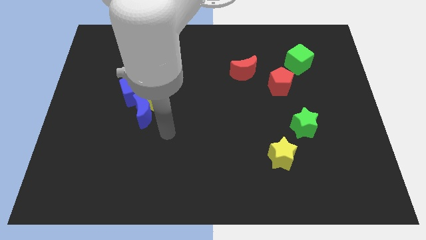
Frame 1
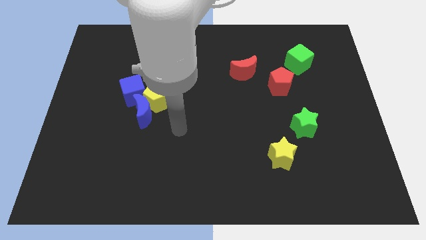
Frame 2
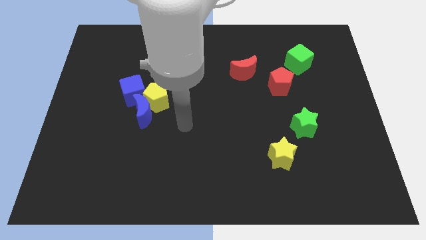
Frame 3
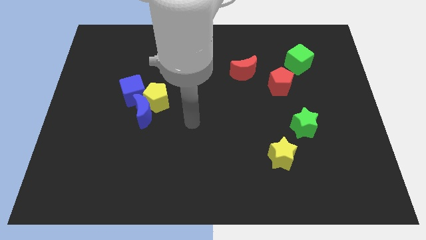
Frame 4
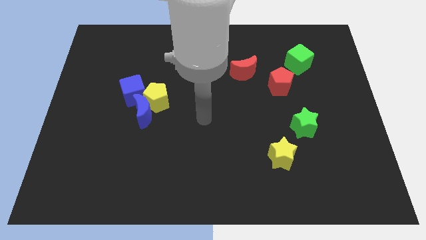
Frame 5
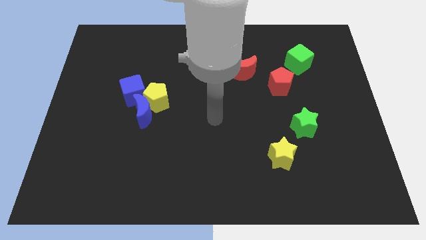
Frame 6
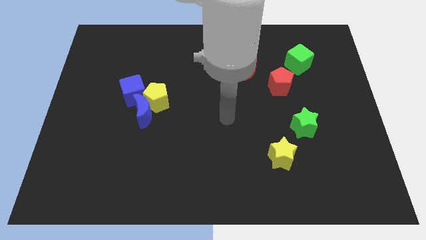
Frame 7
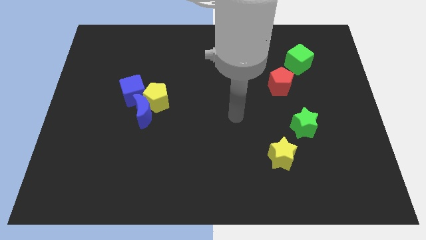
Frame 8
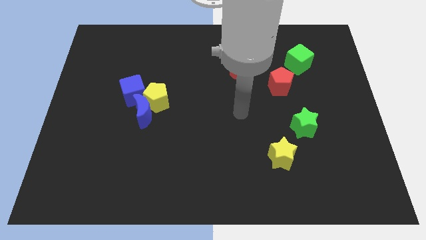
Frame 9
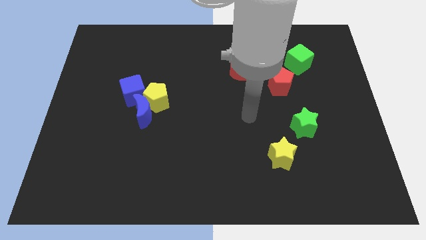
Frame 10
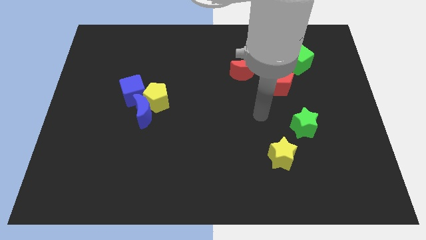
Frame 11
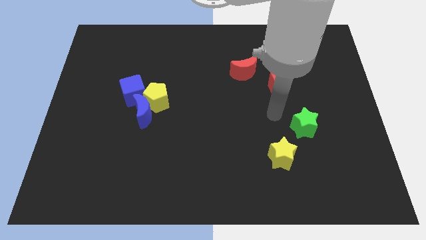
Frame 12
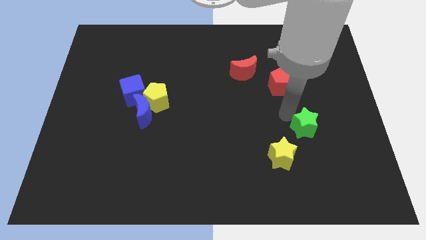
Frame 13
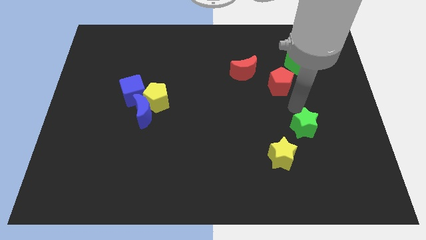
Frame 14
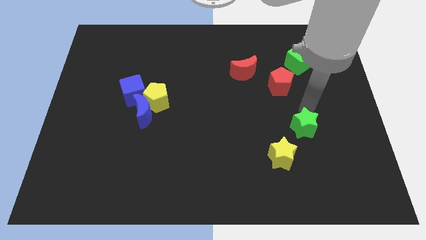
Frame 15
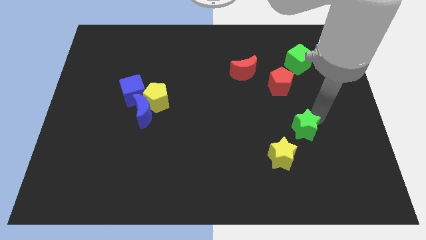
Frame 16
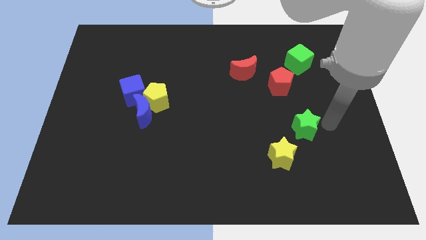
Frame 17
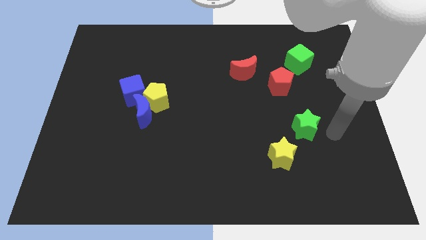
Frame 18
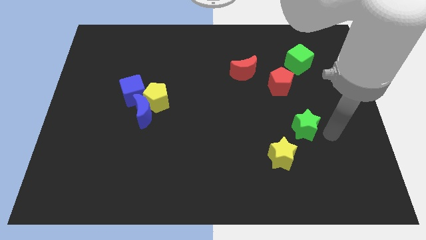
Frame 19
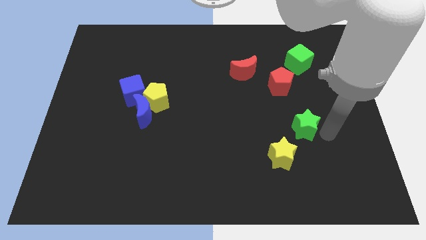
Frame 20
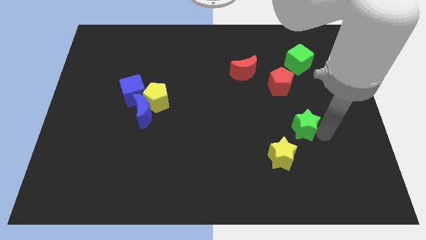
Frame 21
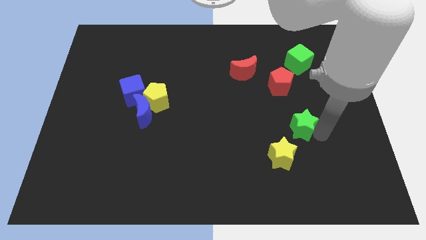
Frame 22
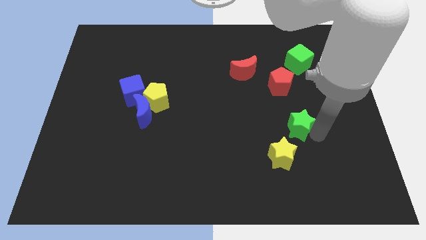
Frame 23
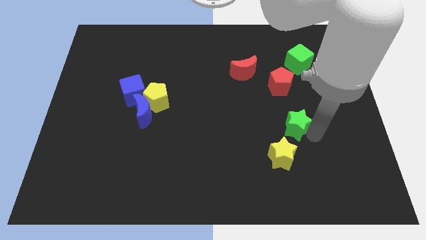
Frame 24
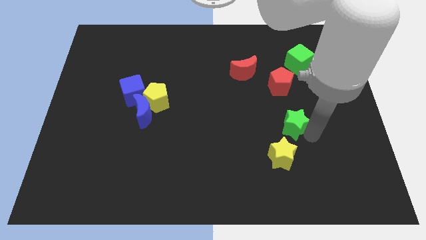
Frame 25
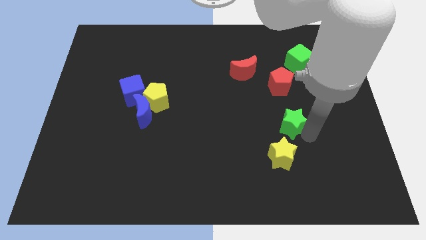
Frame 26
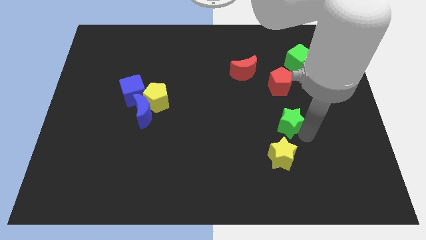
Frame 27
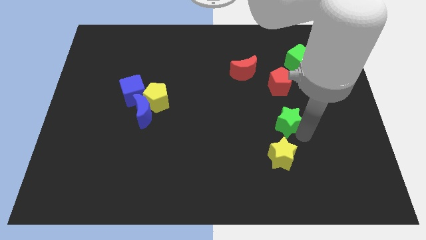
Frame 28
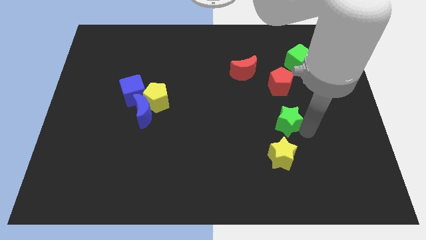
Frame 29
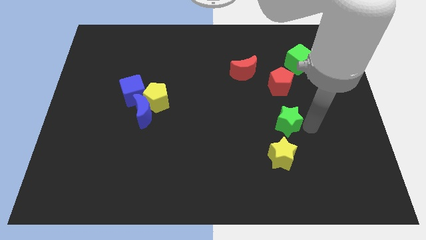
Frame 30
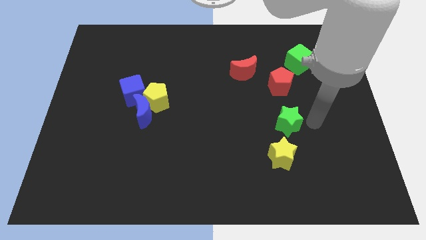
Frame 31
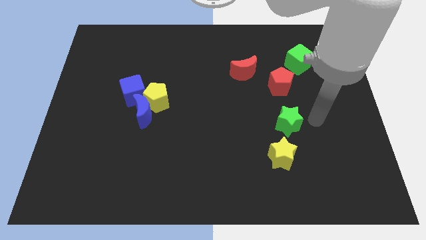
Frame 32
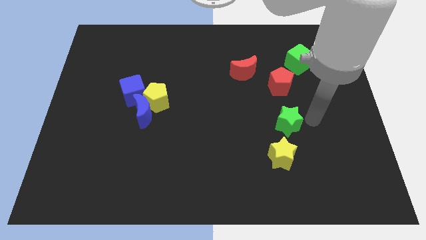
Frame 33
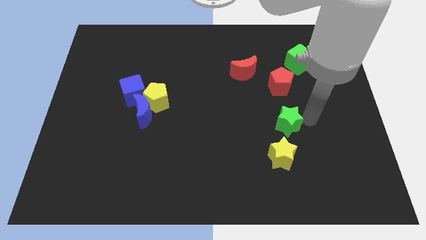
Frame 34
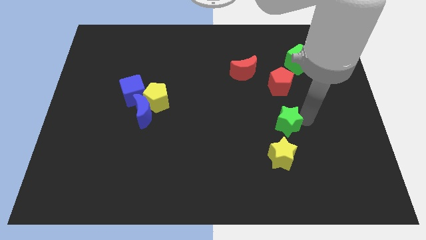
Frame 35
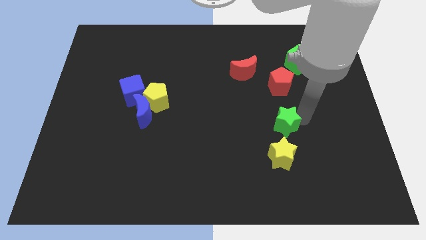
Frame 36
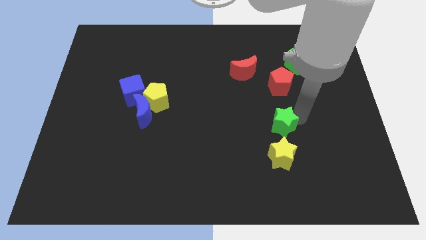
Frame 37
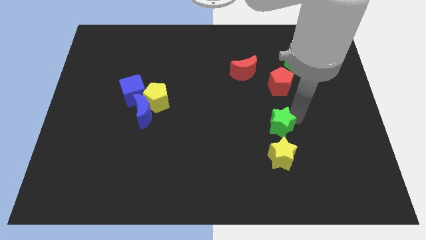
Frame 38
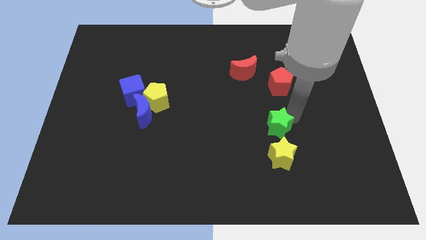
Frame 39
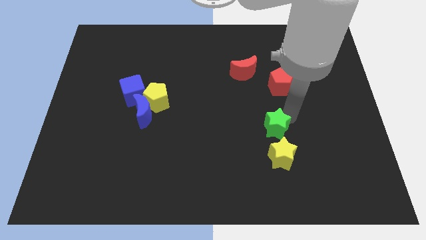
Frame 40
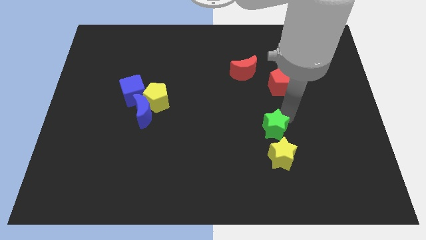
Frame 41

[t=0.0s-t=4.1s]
push the green star to the left a little

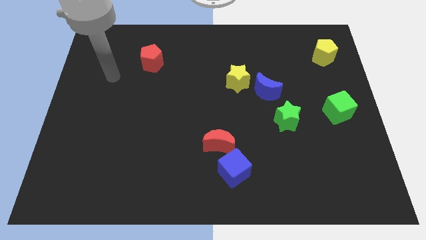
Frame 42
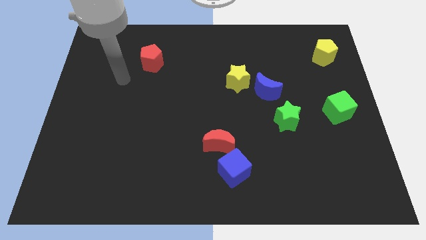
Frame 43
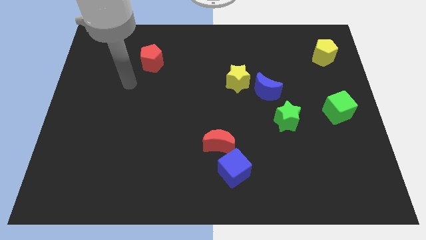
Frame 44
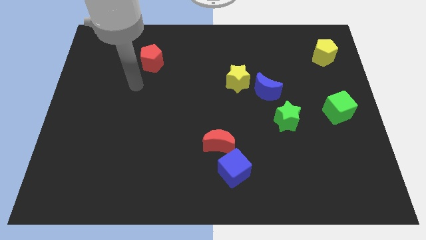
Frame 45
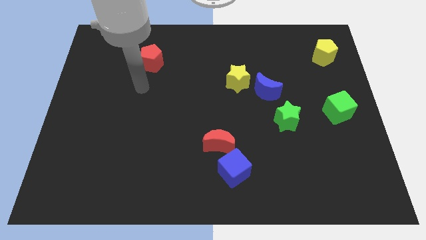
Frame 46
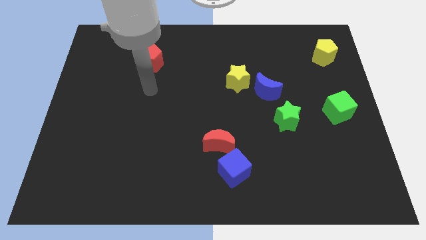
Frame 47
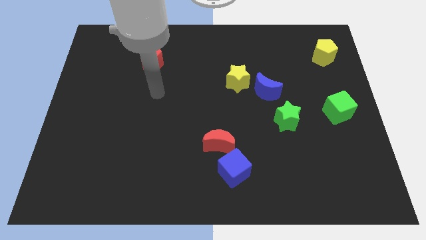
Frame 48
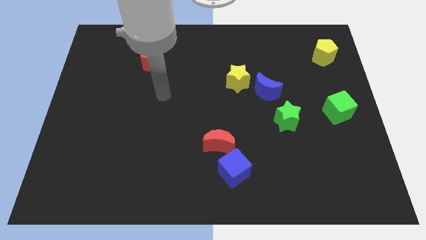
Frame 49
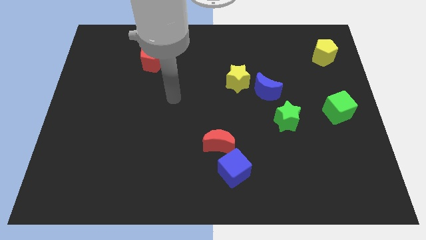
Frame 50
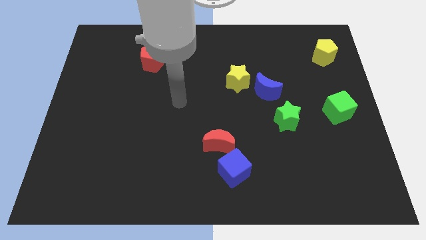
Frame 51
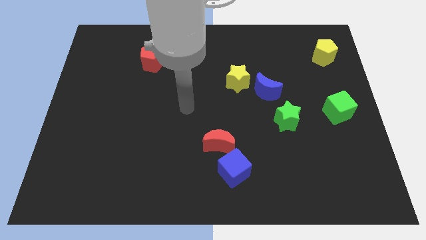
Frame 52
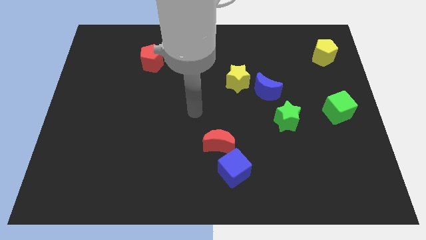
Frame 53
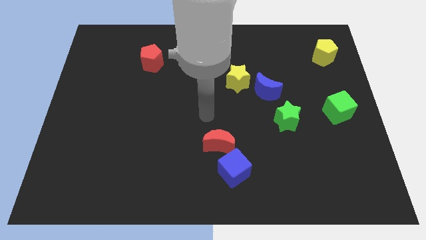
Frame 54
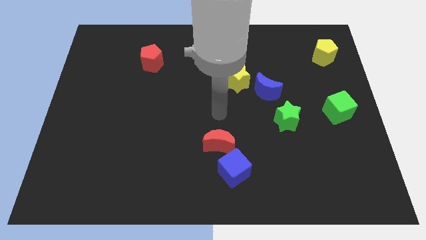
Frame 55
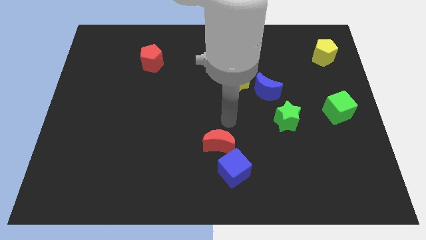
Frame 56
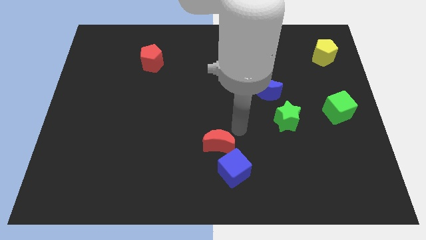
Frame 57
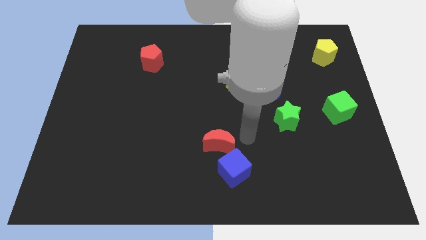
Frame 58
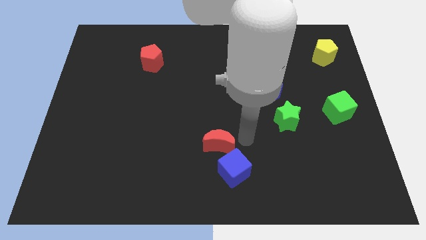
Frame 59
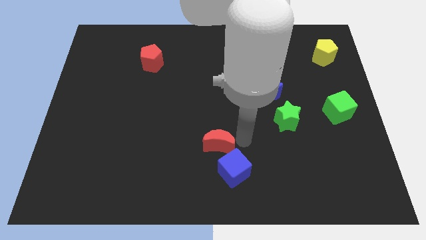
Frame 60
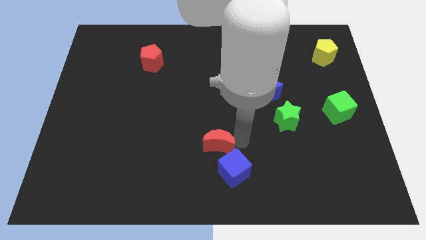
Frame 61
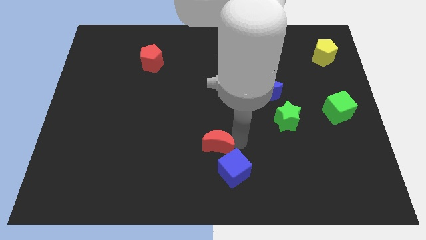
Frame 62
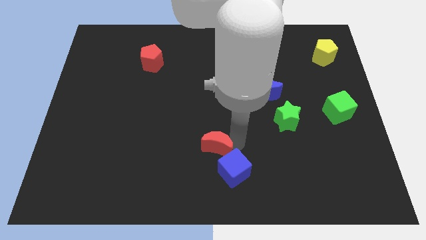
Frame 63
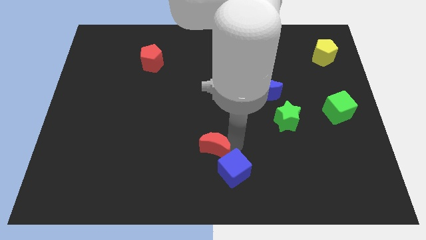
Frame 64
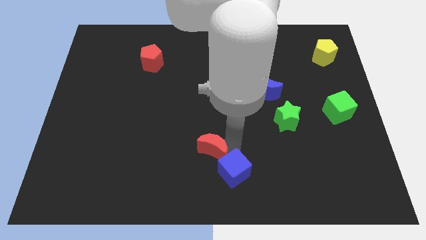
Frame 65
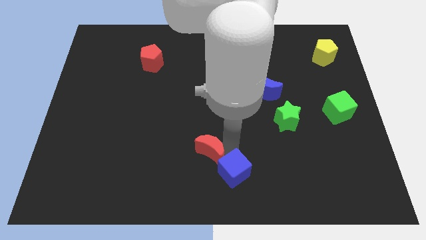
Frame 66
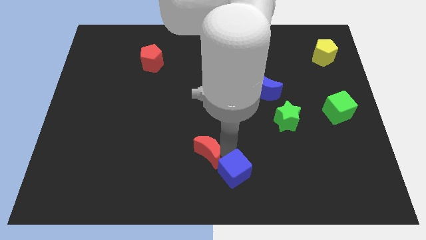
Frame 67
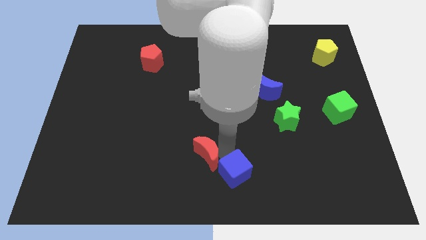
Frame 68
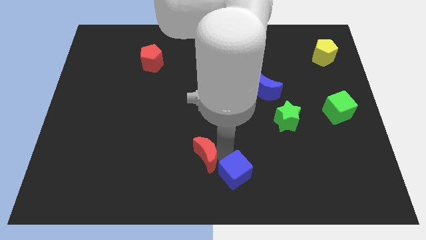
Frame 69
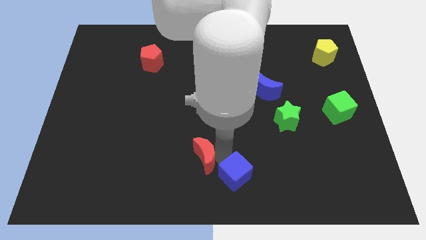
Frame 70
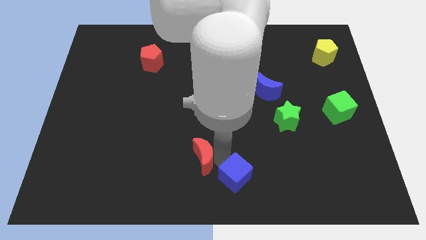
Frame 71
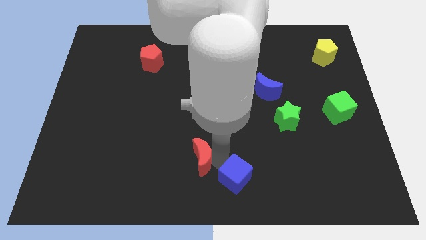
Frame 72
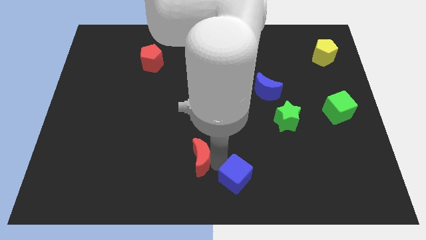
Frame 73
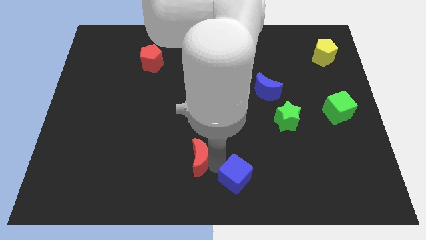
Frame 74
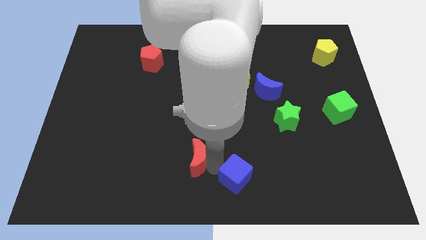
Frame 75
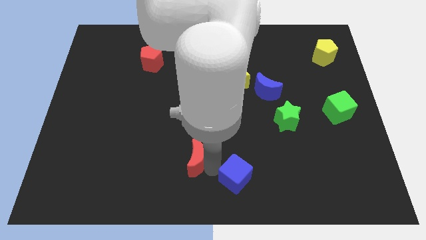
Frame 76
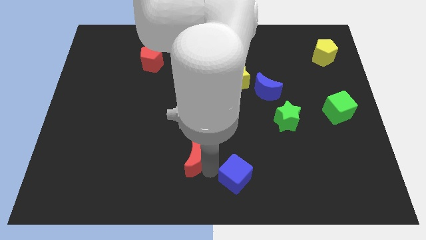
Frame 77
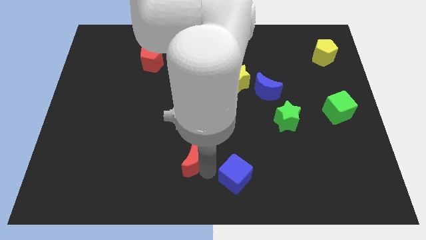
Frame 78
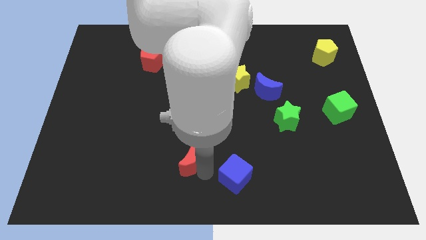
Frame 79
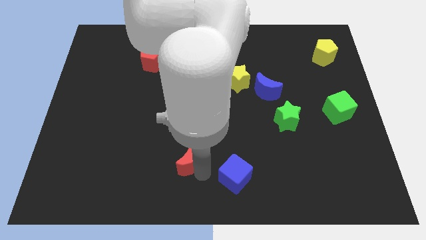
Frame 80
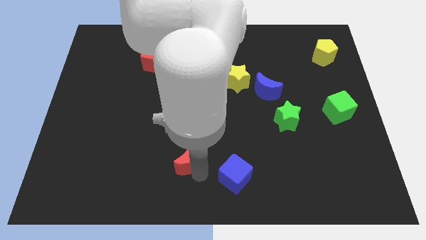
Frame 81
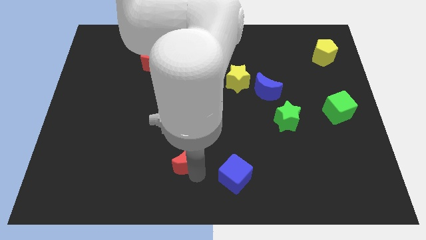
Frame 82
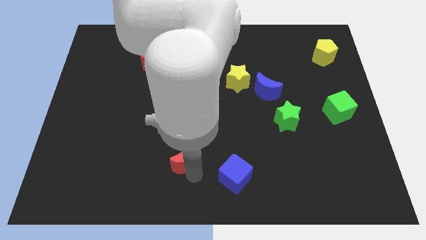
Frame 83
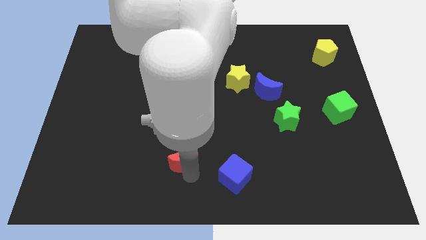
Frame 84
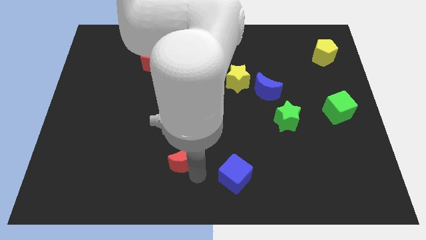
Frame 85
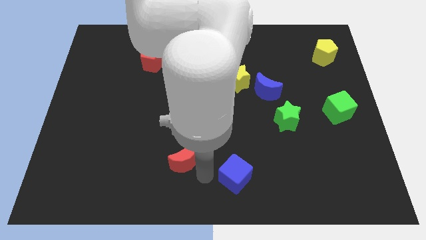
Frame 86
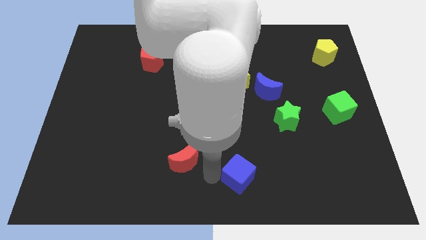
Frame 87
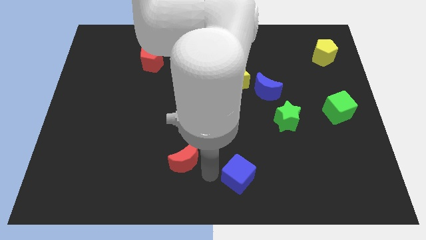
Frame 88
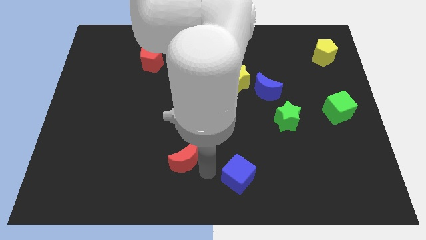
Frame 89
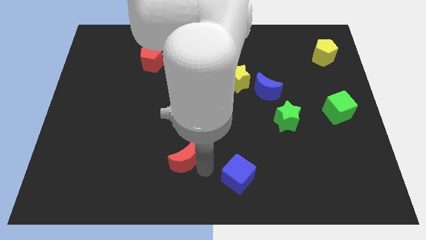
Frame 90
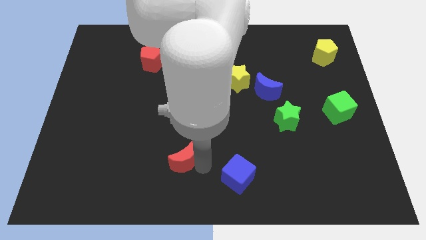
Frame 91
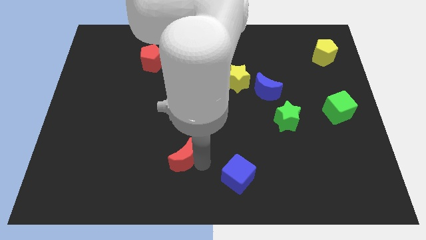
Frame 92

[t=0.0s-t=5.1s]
slightly push the red moon left
